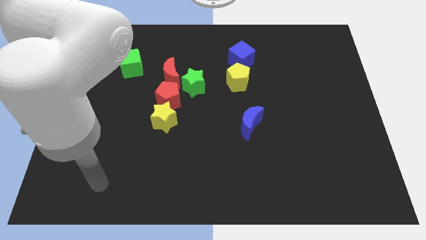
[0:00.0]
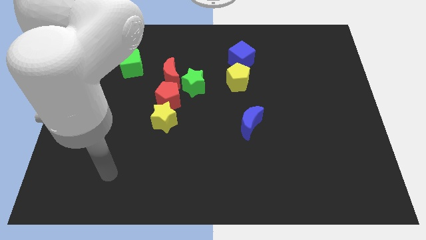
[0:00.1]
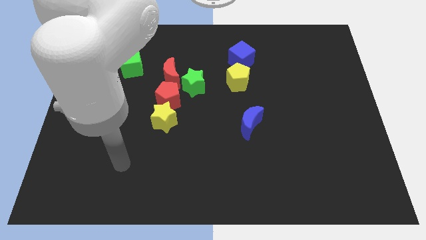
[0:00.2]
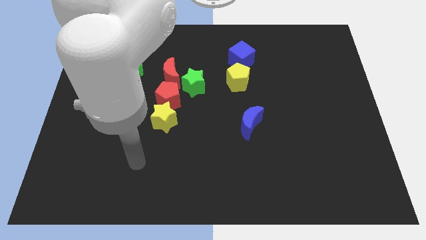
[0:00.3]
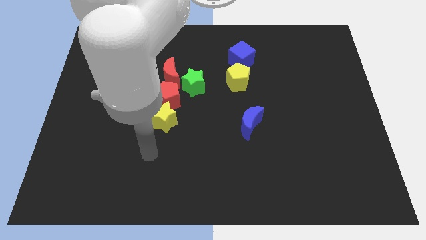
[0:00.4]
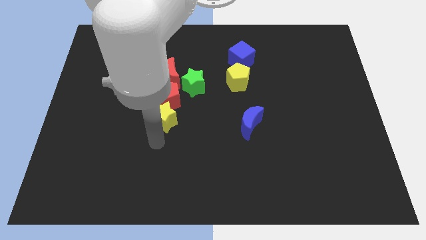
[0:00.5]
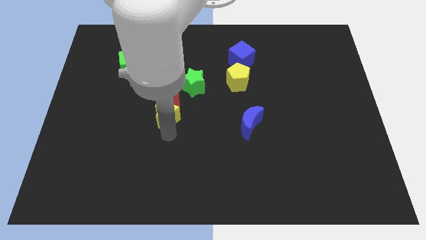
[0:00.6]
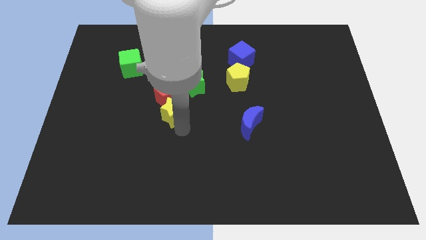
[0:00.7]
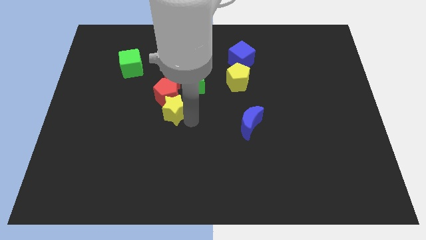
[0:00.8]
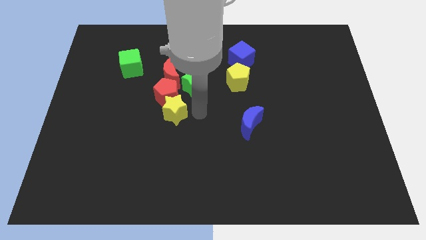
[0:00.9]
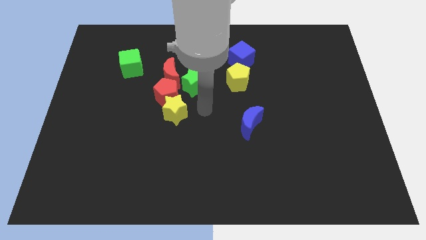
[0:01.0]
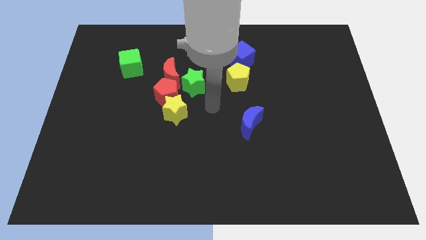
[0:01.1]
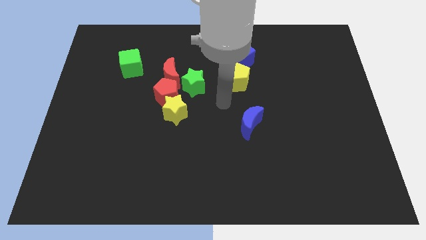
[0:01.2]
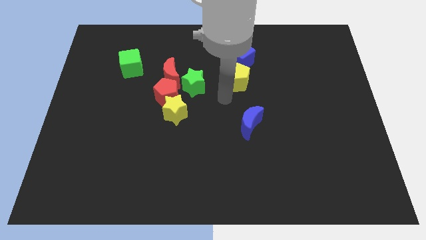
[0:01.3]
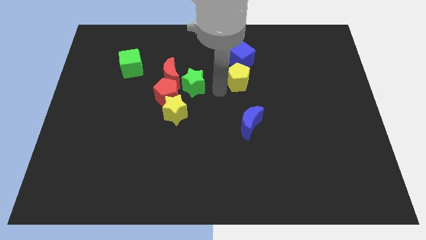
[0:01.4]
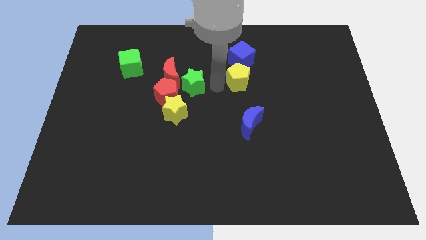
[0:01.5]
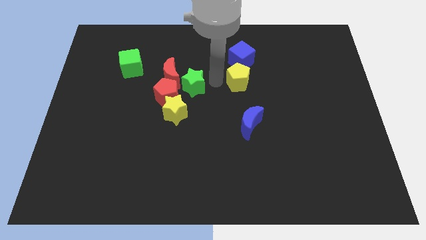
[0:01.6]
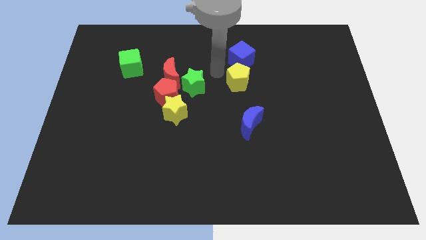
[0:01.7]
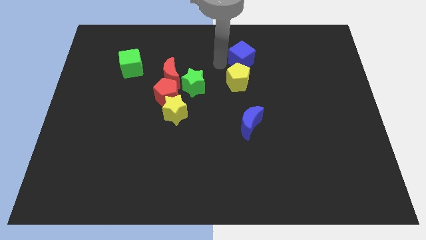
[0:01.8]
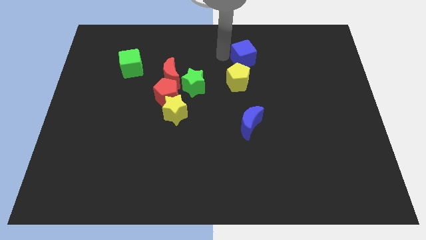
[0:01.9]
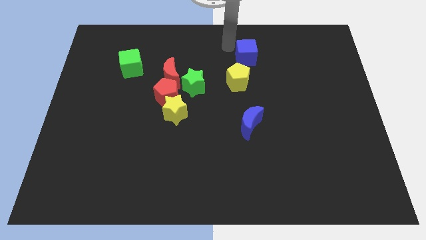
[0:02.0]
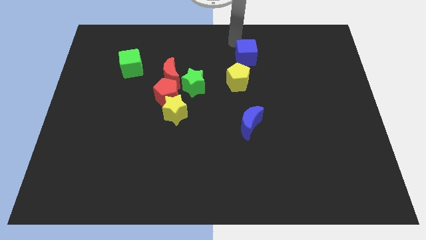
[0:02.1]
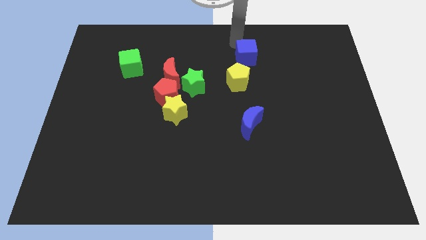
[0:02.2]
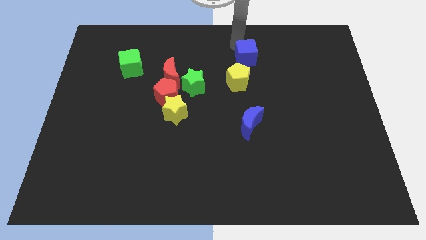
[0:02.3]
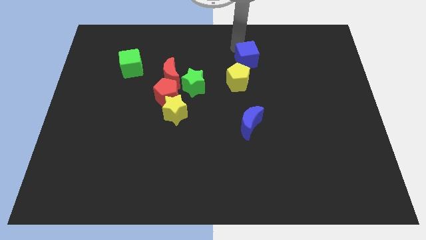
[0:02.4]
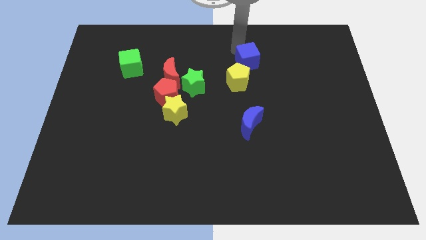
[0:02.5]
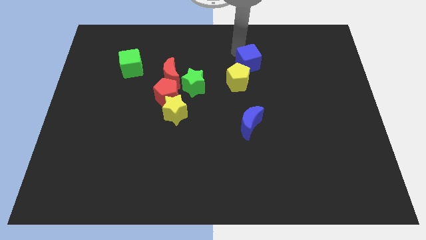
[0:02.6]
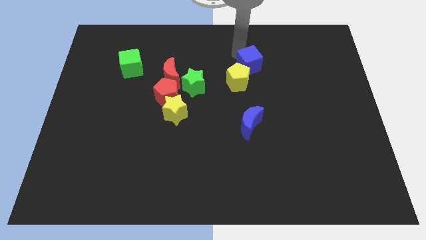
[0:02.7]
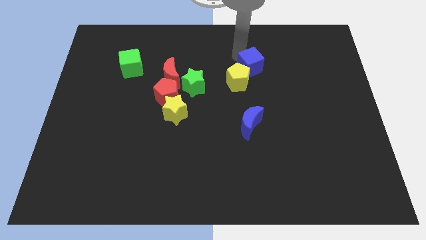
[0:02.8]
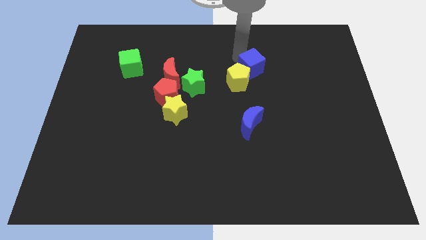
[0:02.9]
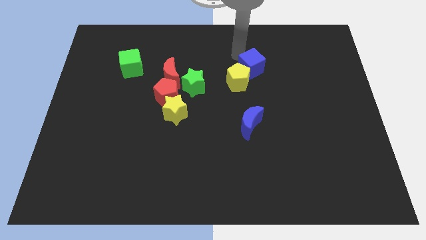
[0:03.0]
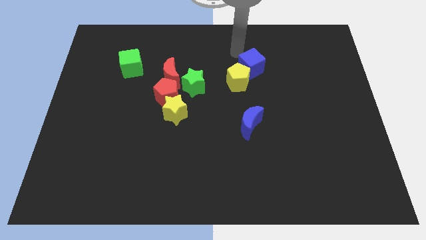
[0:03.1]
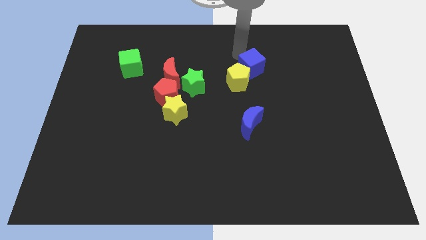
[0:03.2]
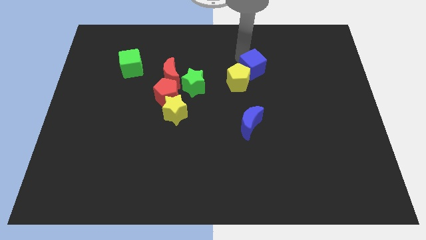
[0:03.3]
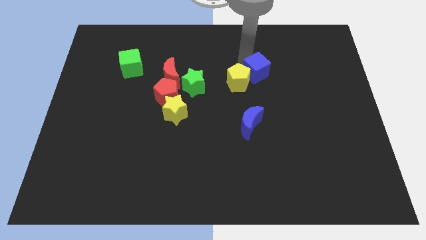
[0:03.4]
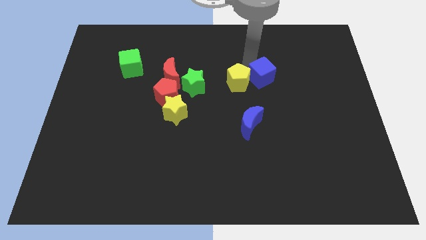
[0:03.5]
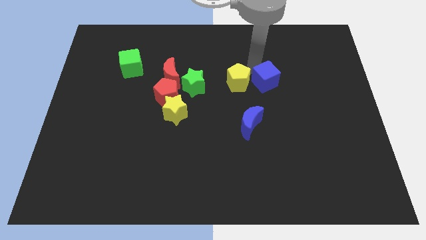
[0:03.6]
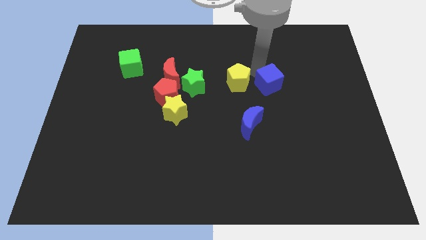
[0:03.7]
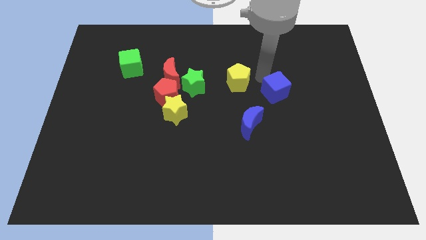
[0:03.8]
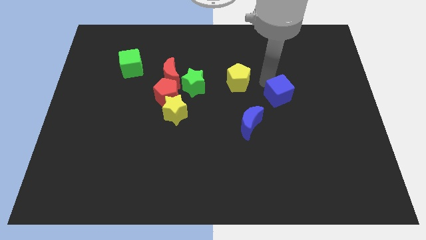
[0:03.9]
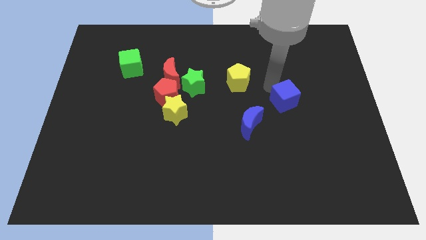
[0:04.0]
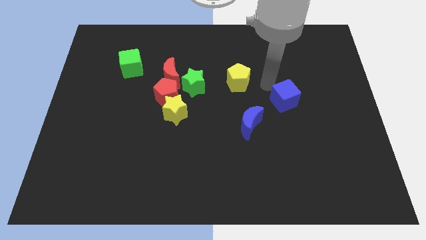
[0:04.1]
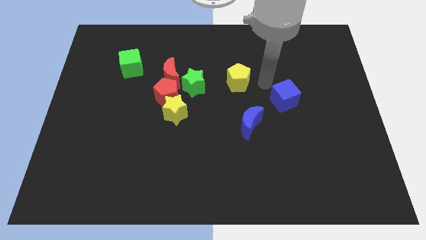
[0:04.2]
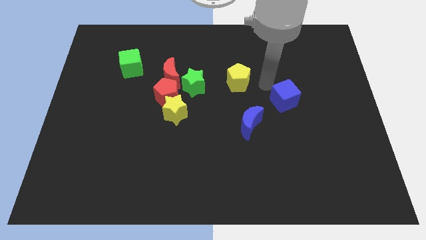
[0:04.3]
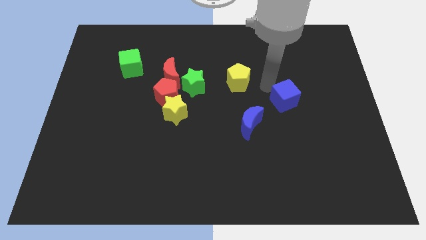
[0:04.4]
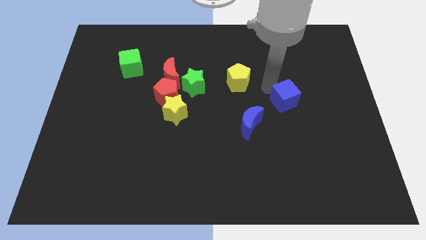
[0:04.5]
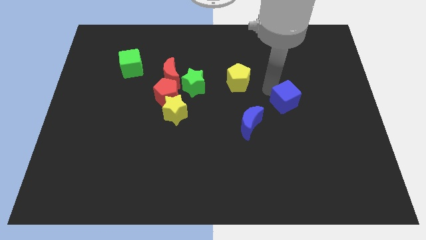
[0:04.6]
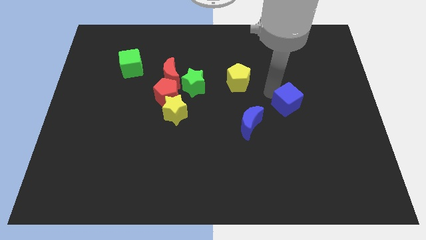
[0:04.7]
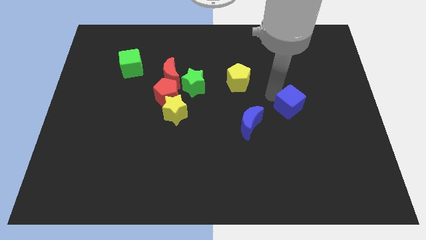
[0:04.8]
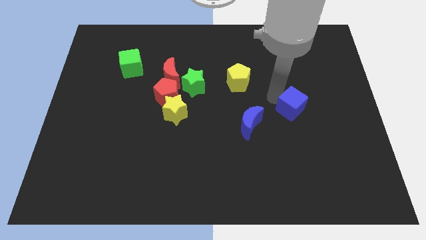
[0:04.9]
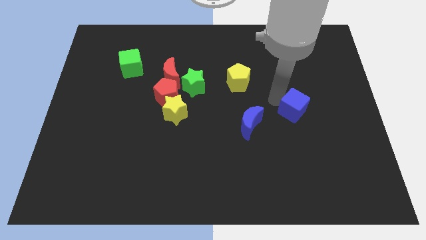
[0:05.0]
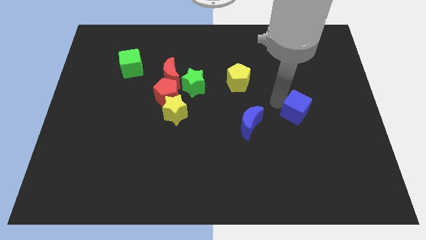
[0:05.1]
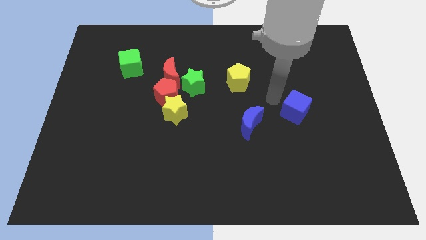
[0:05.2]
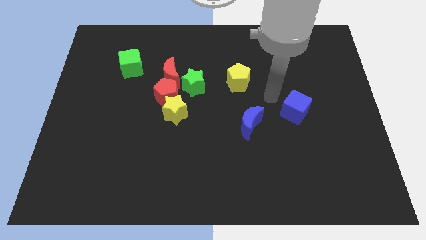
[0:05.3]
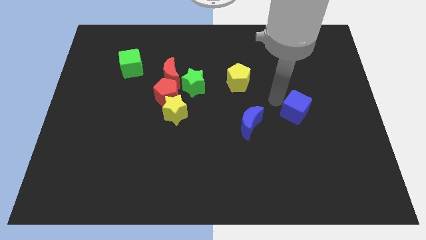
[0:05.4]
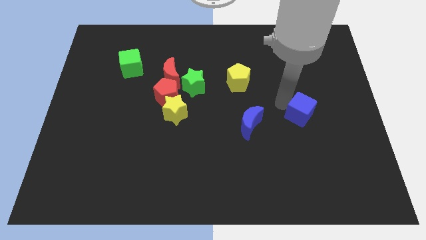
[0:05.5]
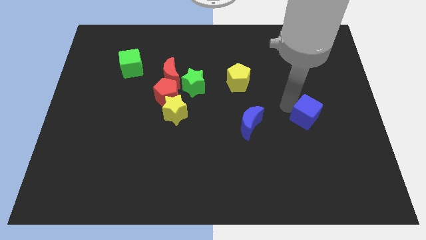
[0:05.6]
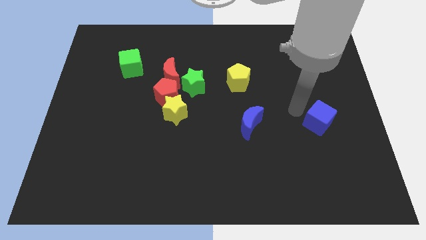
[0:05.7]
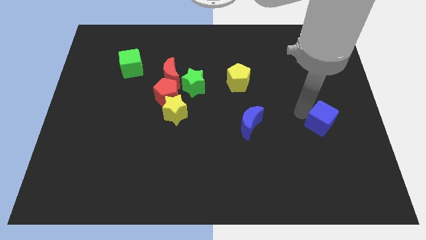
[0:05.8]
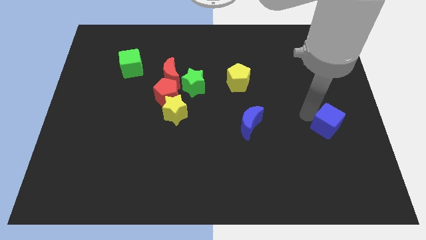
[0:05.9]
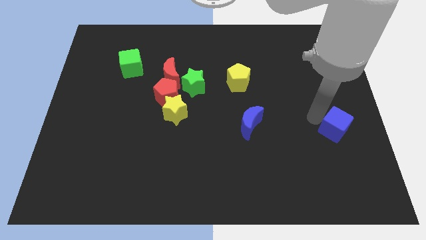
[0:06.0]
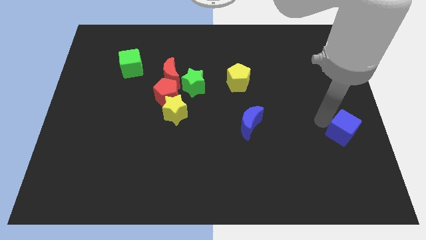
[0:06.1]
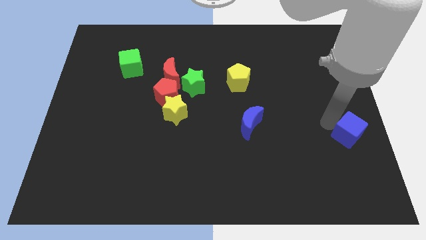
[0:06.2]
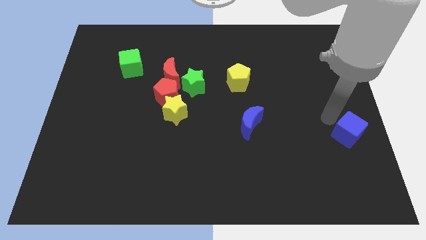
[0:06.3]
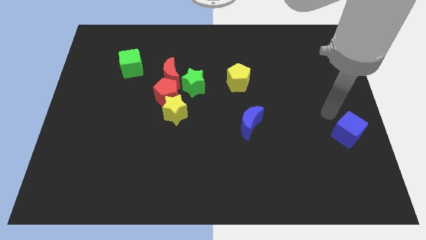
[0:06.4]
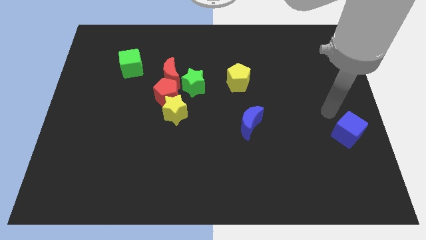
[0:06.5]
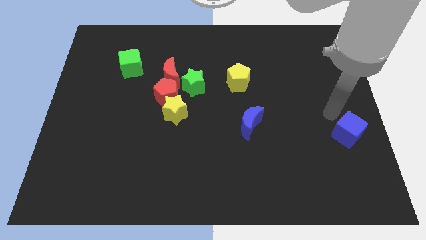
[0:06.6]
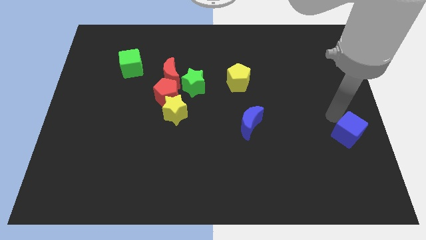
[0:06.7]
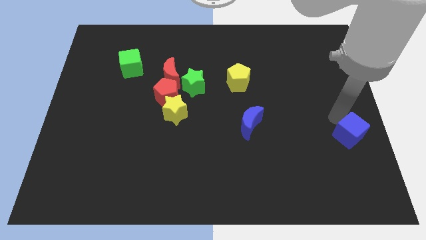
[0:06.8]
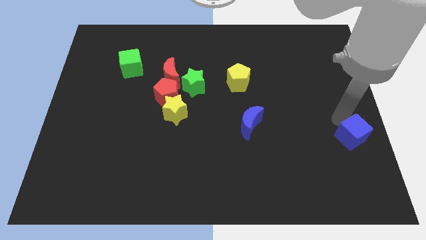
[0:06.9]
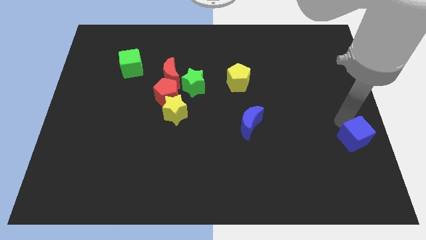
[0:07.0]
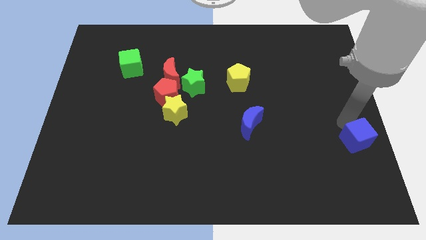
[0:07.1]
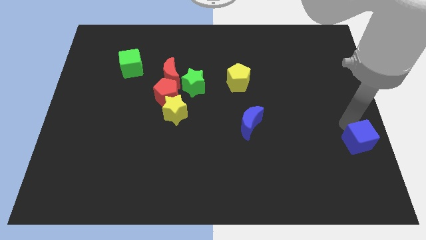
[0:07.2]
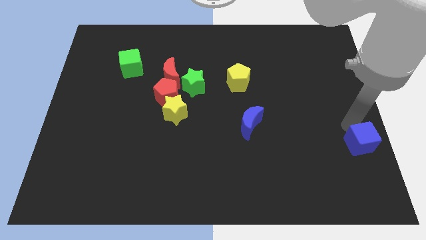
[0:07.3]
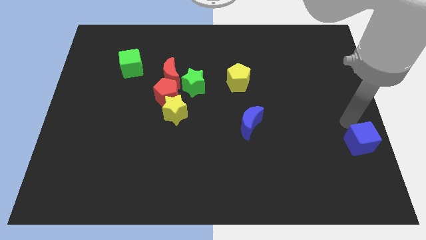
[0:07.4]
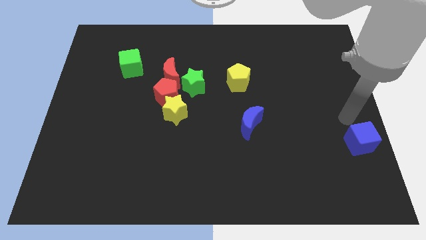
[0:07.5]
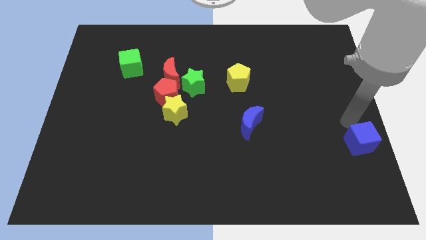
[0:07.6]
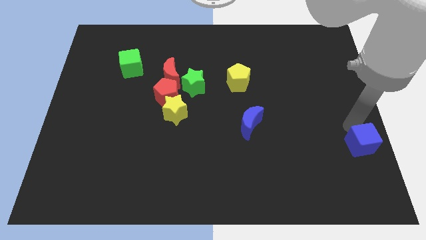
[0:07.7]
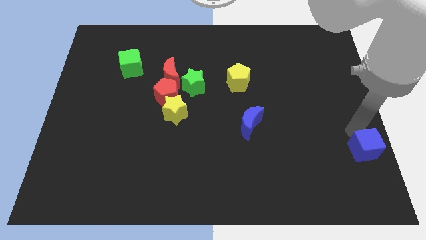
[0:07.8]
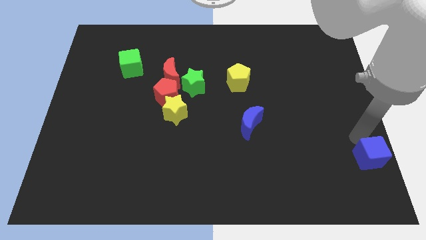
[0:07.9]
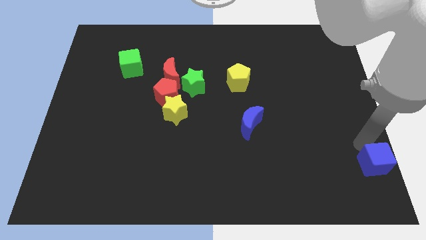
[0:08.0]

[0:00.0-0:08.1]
put the blue cube to the bottom right of the board
